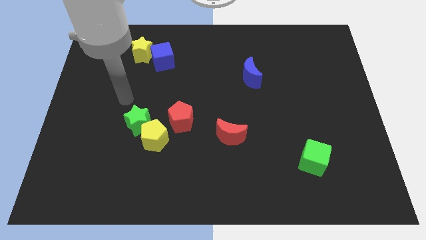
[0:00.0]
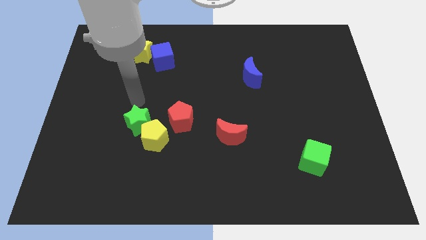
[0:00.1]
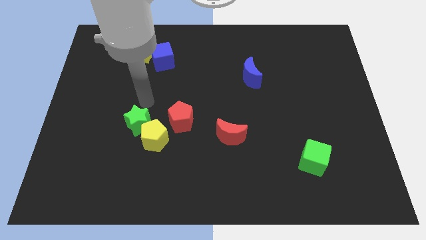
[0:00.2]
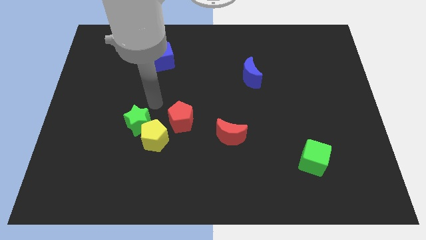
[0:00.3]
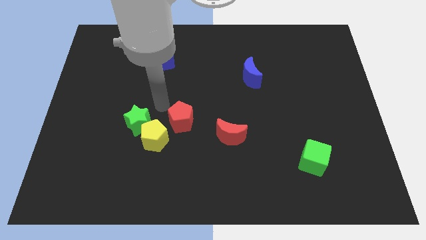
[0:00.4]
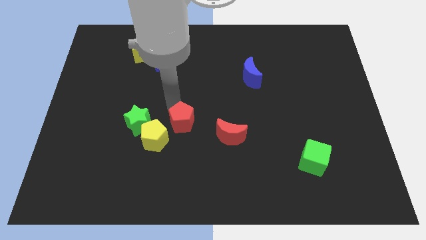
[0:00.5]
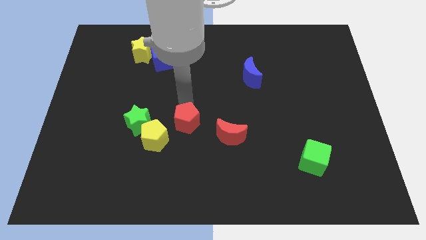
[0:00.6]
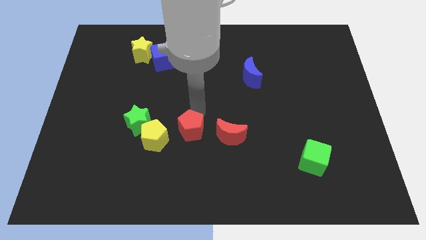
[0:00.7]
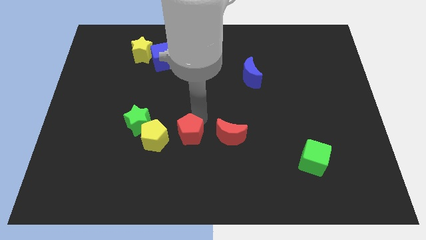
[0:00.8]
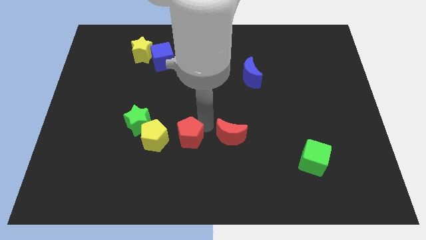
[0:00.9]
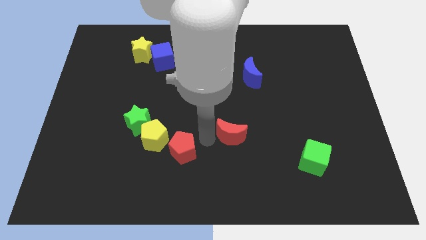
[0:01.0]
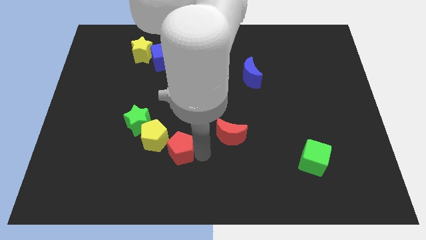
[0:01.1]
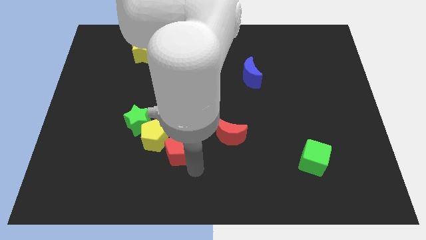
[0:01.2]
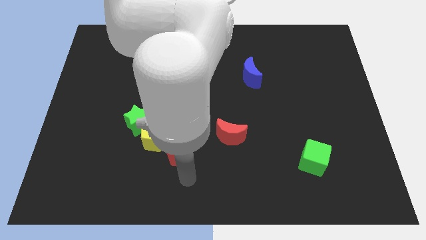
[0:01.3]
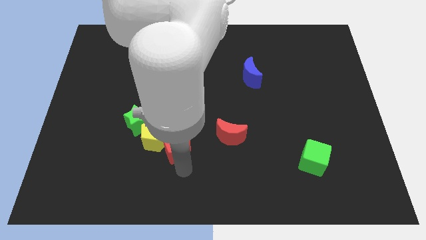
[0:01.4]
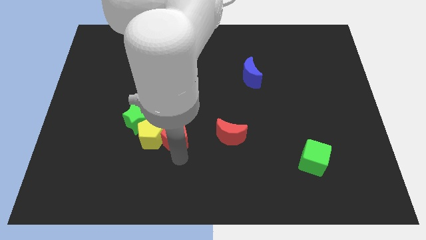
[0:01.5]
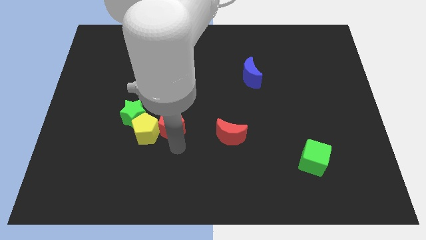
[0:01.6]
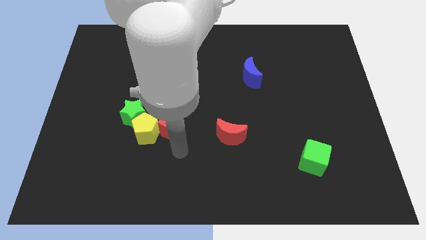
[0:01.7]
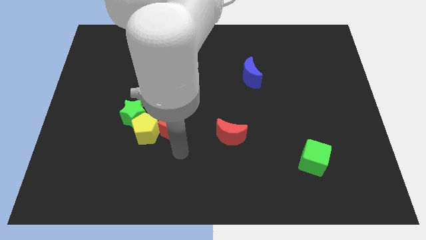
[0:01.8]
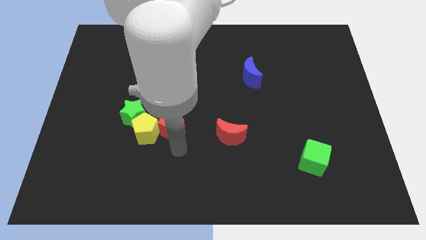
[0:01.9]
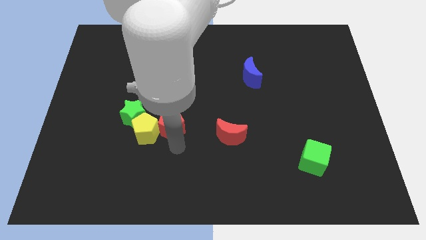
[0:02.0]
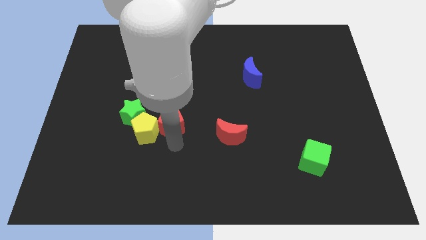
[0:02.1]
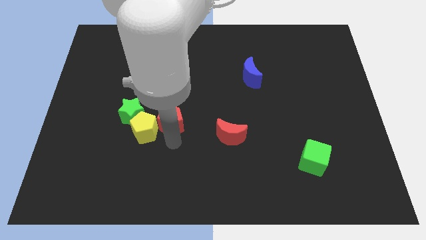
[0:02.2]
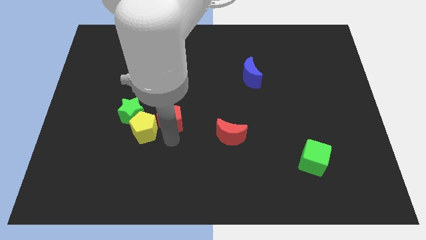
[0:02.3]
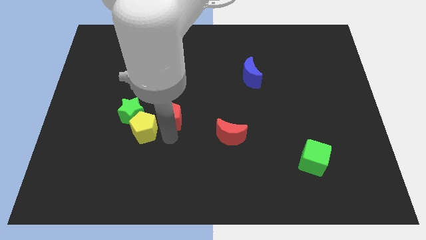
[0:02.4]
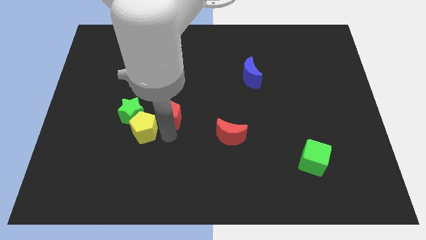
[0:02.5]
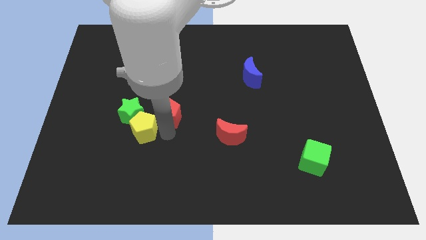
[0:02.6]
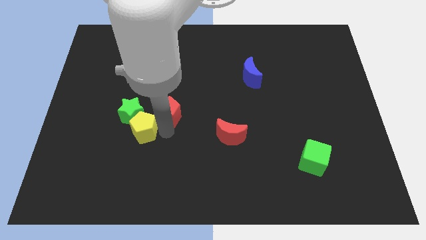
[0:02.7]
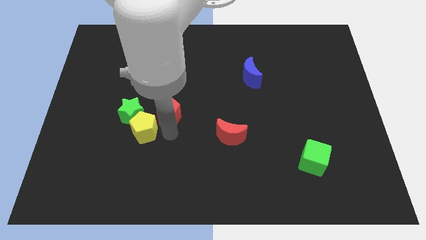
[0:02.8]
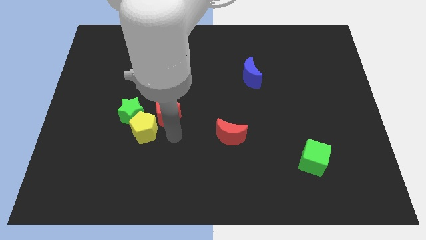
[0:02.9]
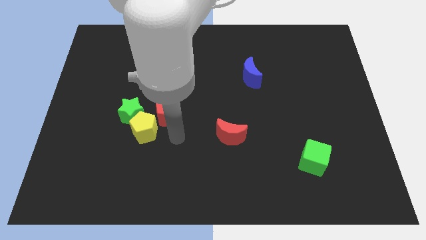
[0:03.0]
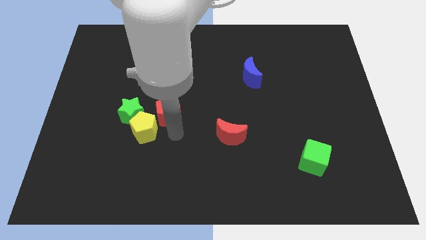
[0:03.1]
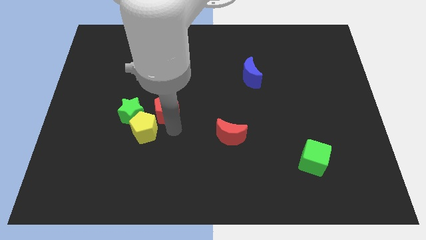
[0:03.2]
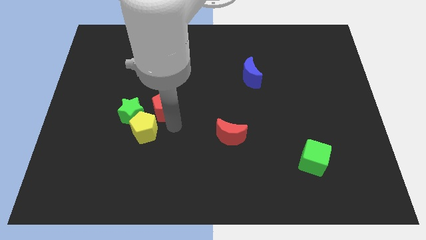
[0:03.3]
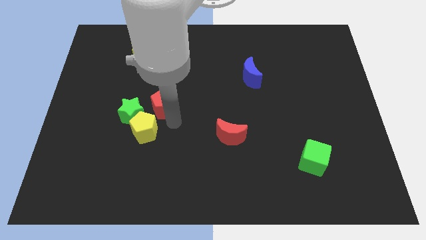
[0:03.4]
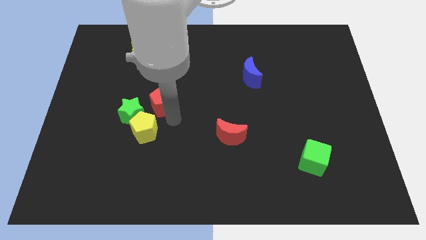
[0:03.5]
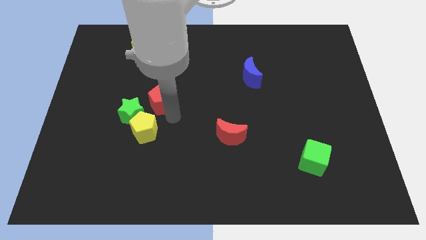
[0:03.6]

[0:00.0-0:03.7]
push the red pentagon a little bit upwards and left

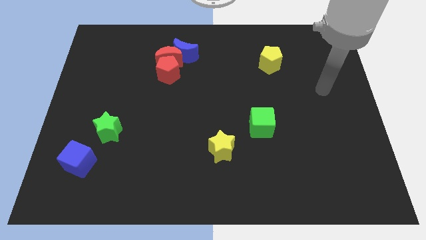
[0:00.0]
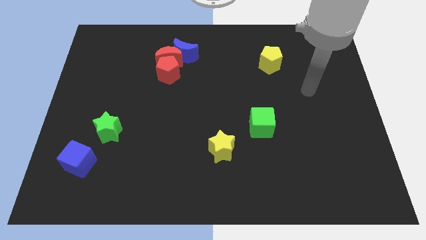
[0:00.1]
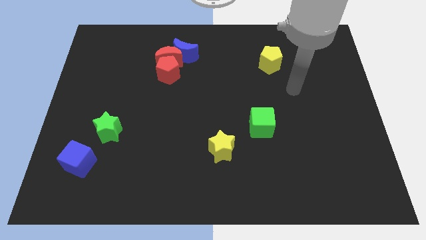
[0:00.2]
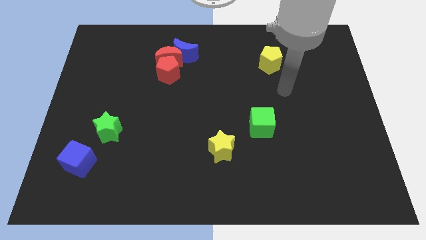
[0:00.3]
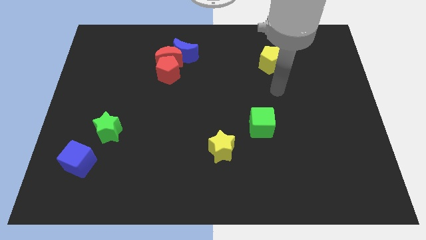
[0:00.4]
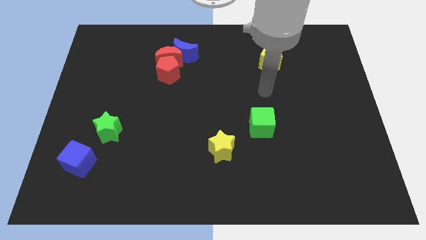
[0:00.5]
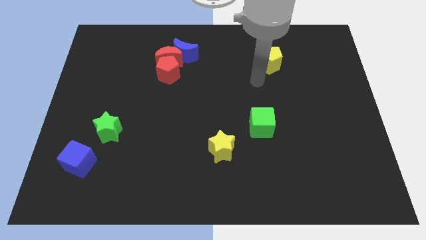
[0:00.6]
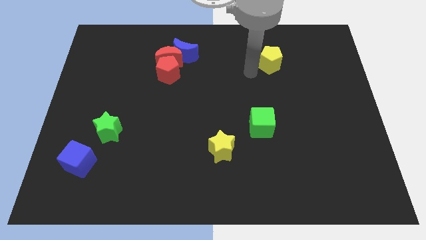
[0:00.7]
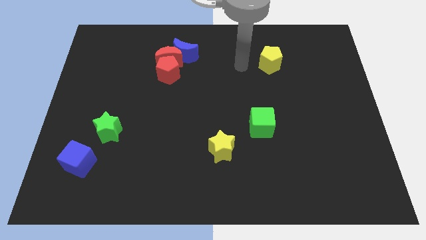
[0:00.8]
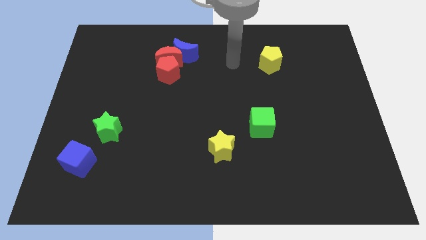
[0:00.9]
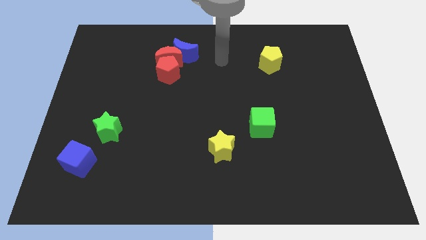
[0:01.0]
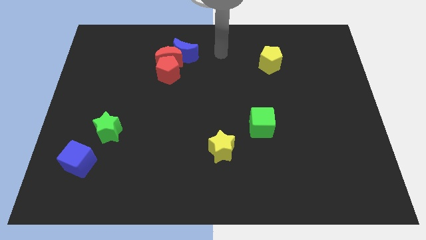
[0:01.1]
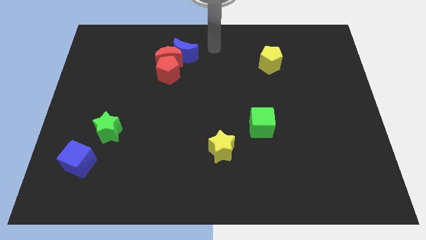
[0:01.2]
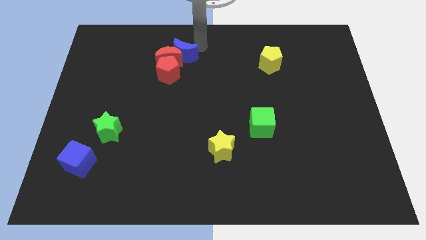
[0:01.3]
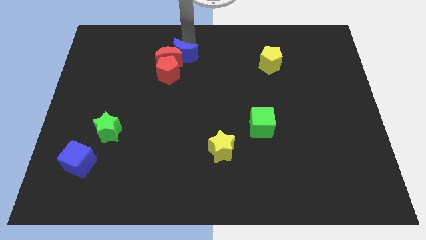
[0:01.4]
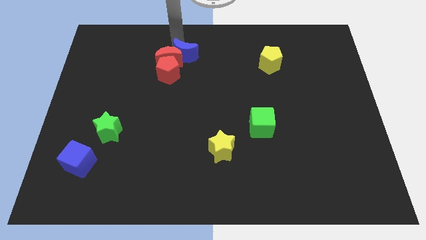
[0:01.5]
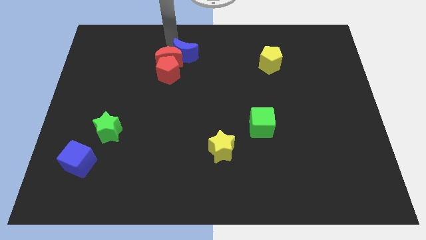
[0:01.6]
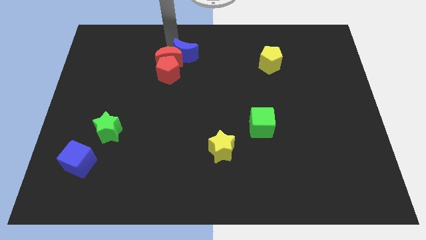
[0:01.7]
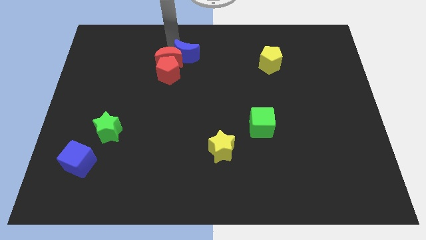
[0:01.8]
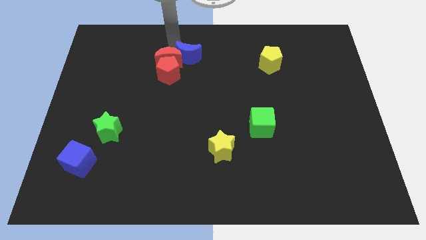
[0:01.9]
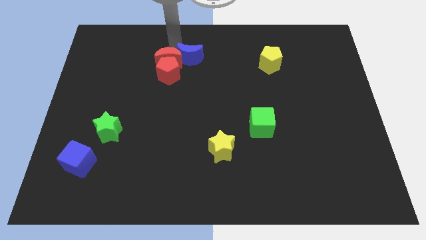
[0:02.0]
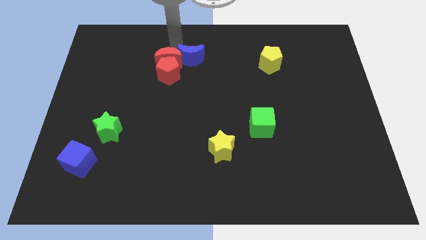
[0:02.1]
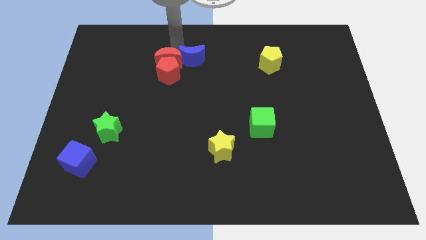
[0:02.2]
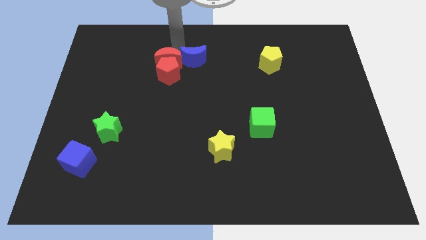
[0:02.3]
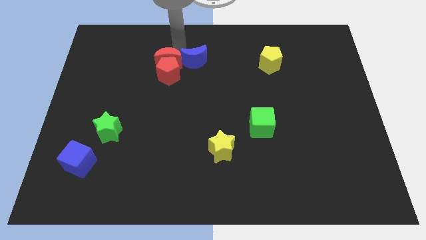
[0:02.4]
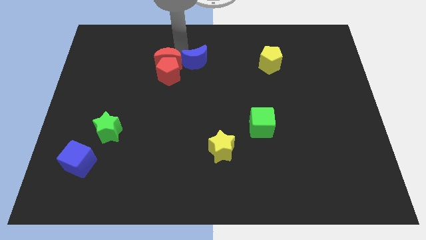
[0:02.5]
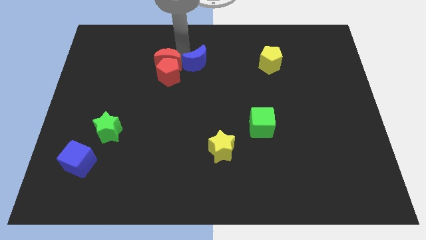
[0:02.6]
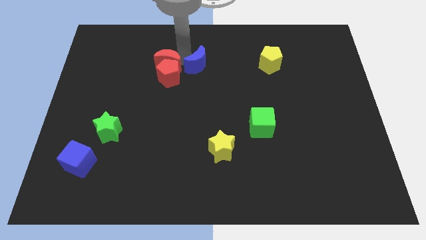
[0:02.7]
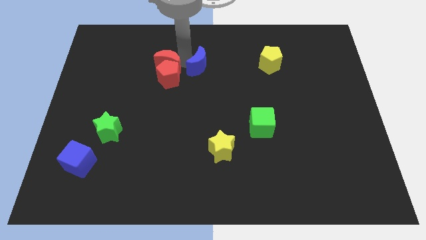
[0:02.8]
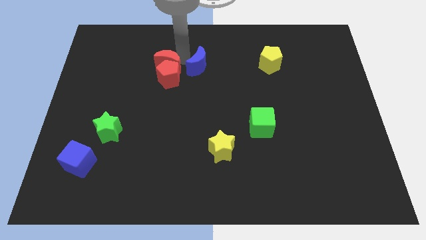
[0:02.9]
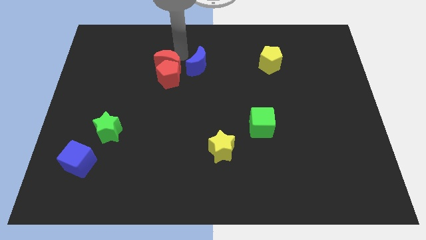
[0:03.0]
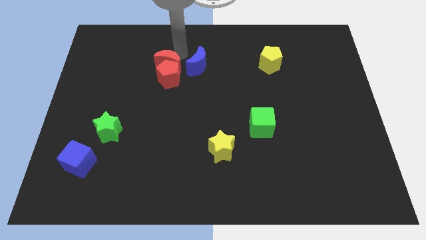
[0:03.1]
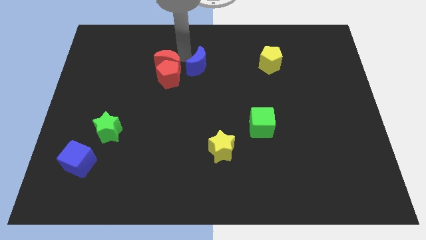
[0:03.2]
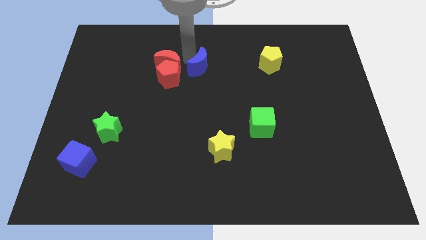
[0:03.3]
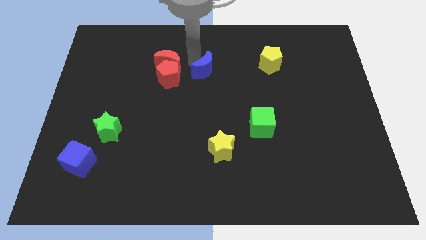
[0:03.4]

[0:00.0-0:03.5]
push the blue moon a little bit downwards and then to the right

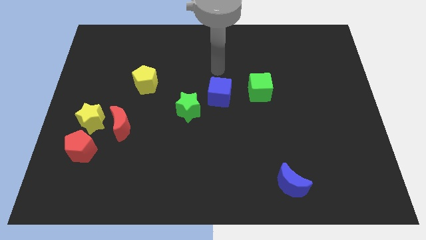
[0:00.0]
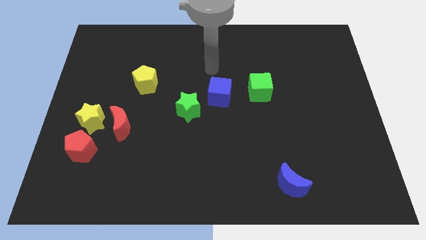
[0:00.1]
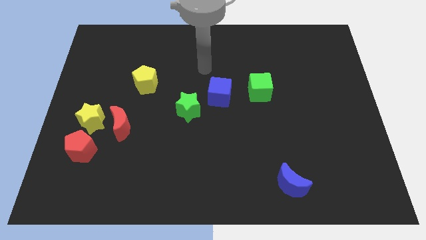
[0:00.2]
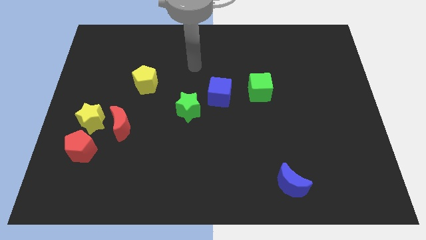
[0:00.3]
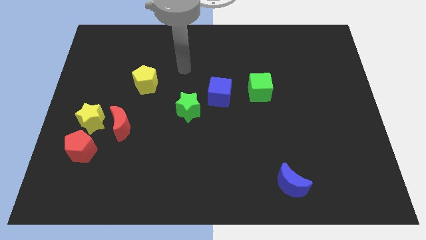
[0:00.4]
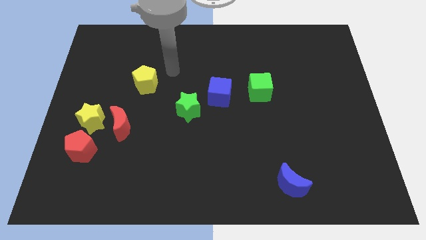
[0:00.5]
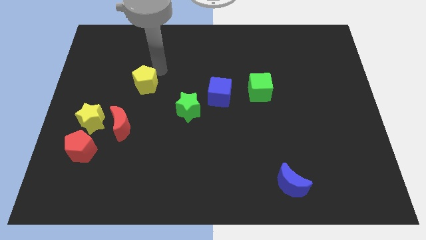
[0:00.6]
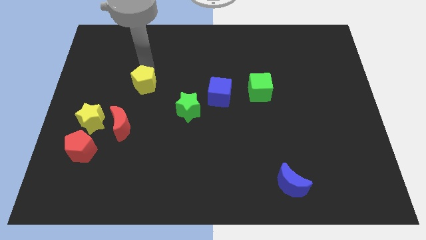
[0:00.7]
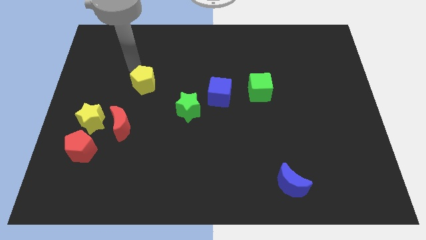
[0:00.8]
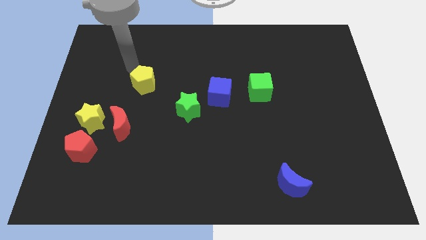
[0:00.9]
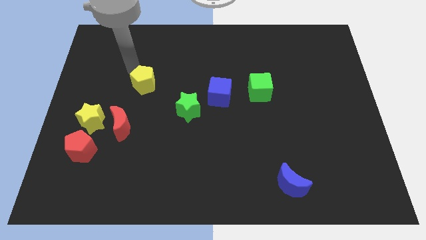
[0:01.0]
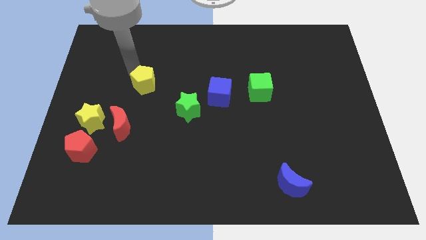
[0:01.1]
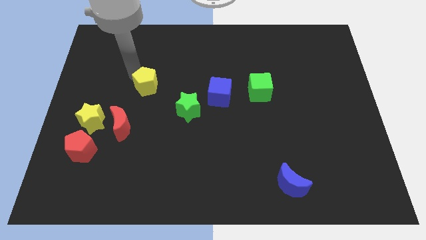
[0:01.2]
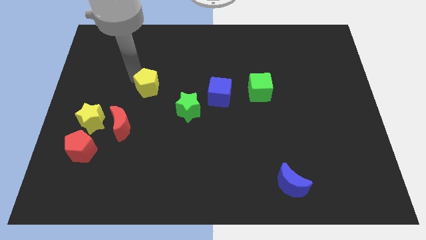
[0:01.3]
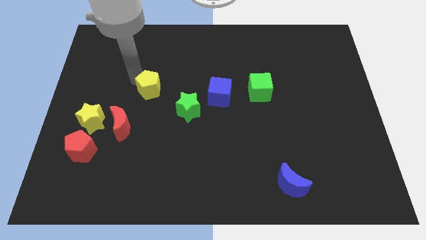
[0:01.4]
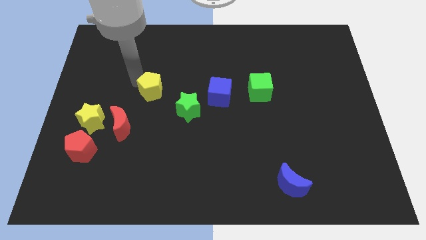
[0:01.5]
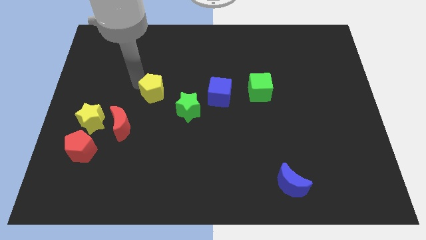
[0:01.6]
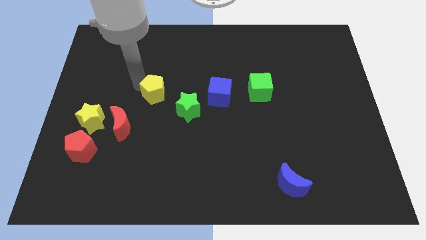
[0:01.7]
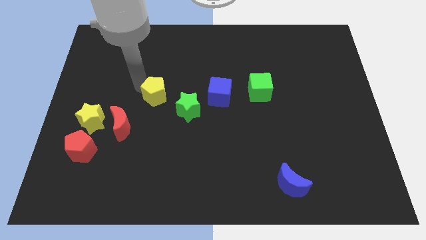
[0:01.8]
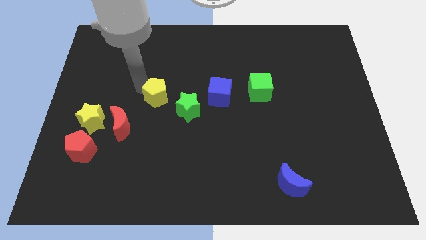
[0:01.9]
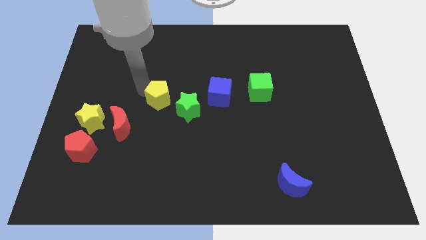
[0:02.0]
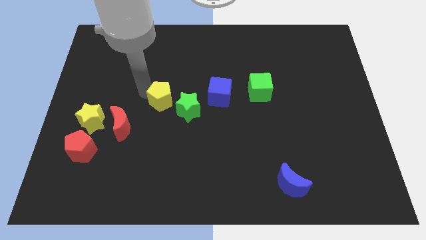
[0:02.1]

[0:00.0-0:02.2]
slightly push the yellow pentagon diagonally down and to the right
